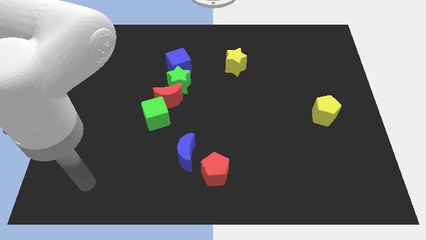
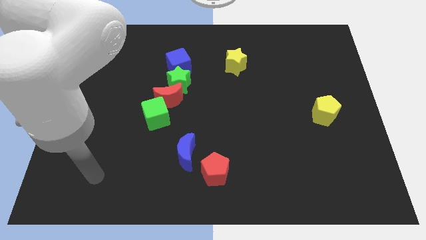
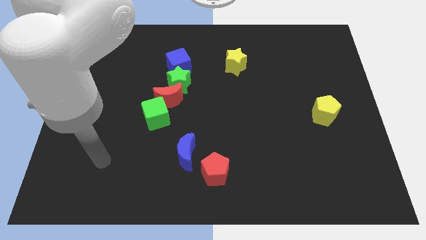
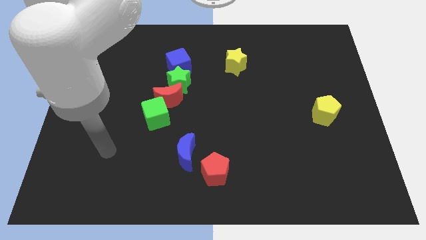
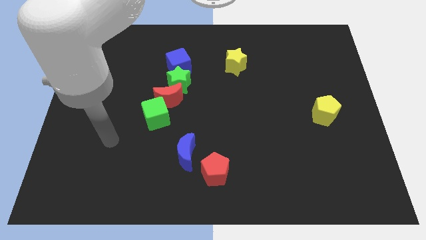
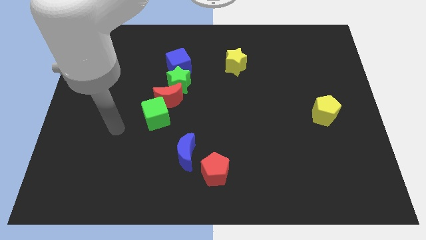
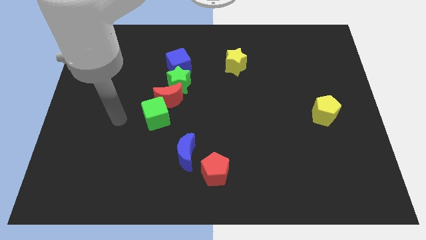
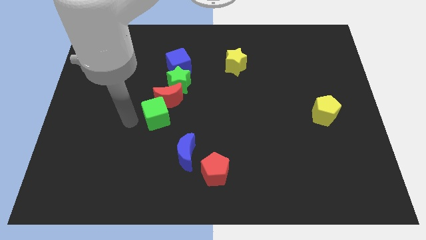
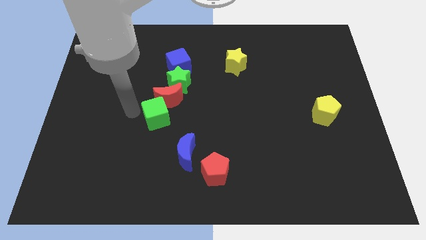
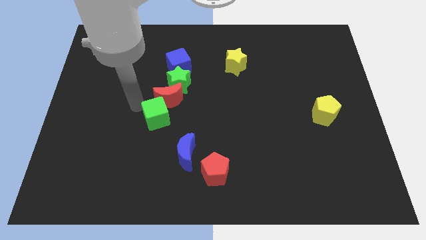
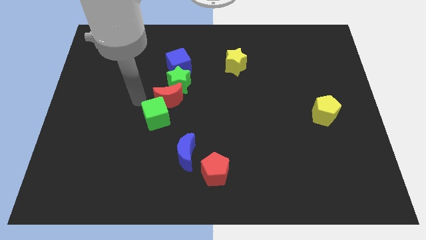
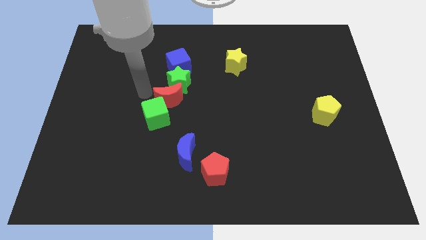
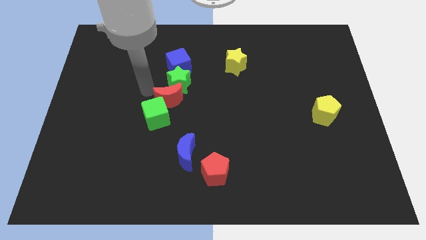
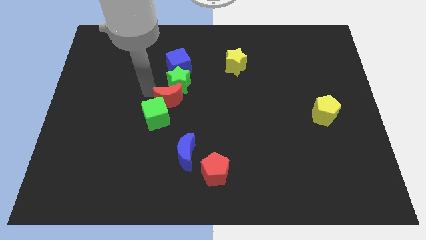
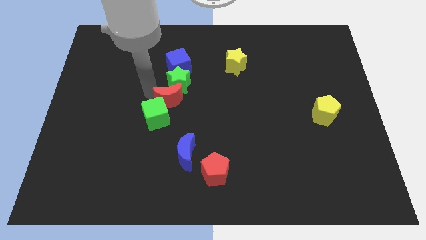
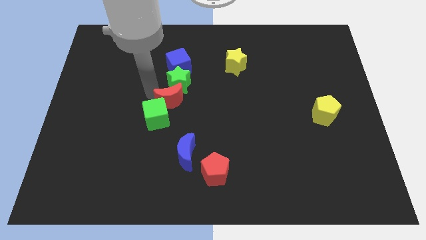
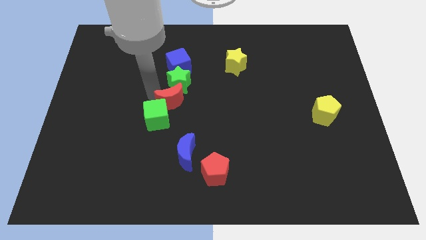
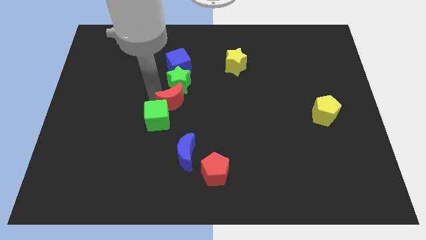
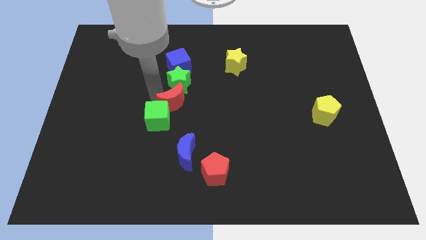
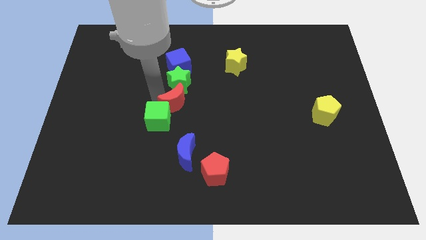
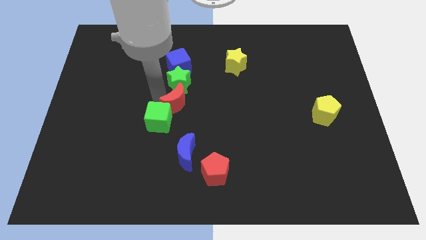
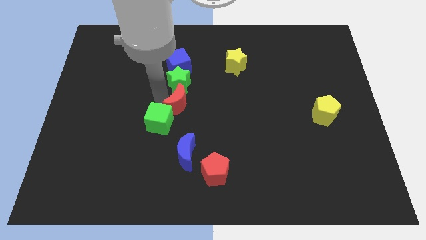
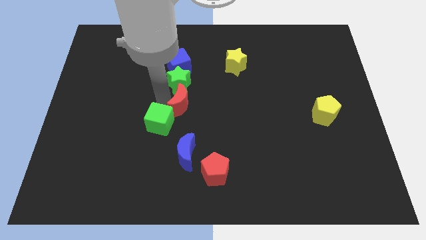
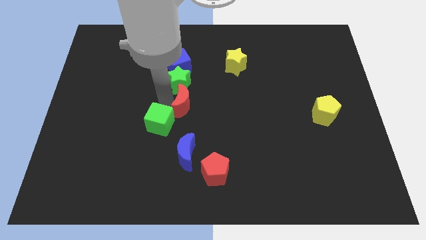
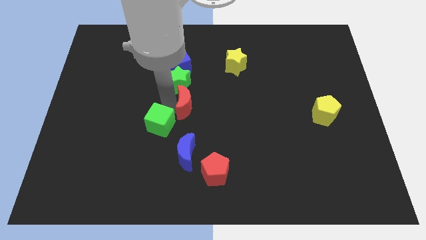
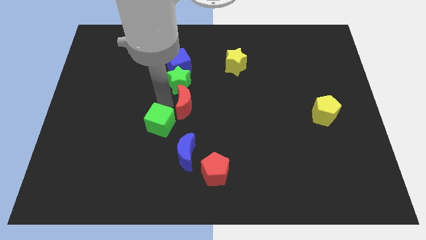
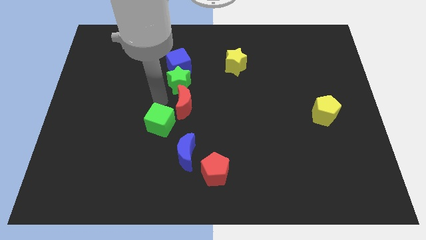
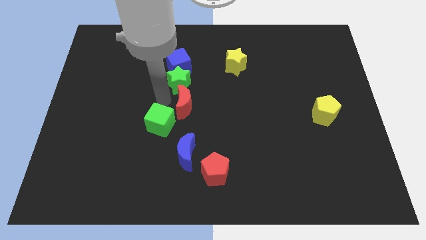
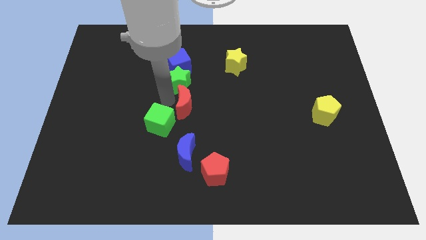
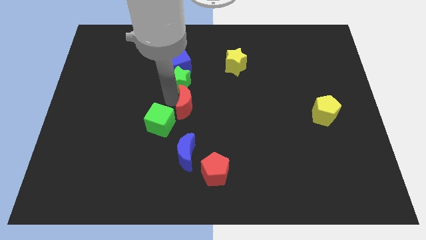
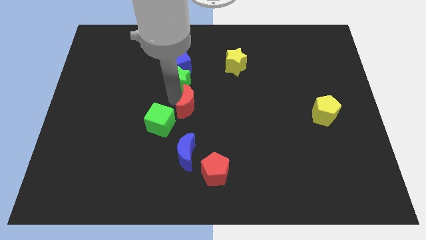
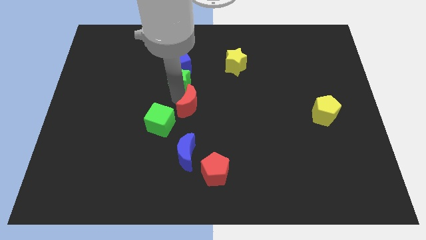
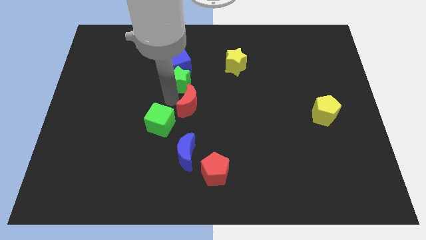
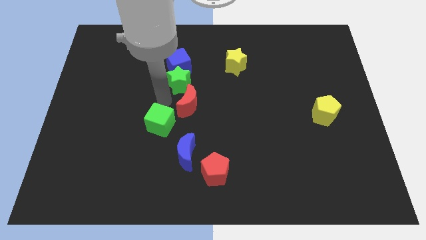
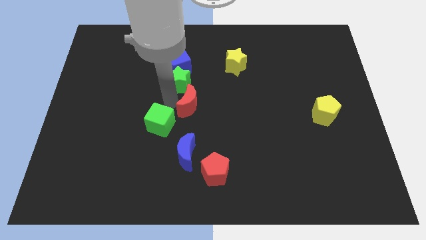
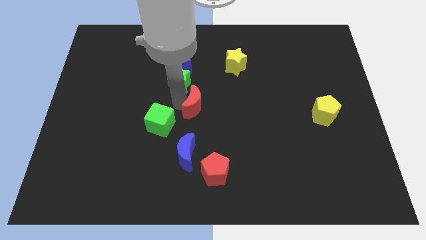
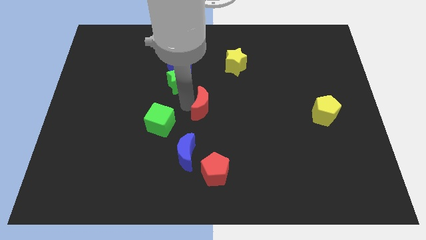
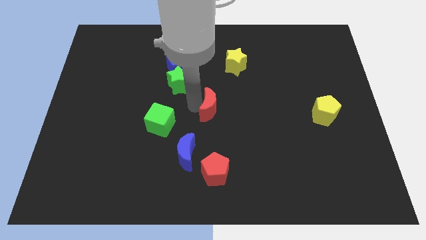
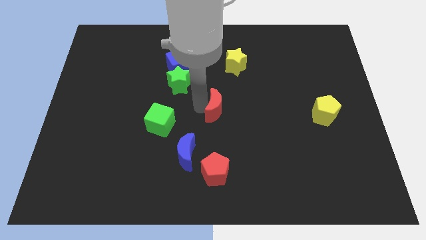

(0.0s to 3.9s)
move the red moon away from the green star and green cube

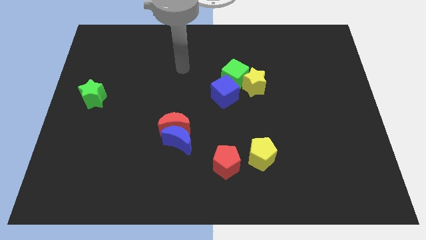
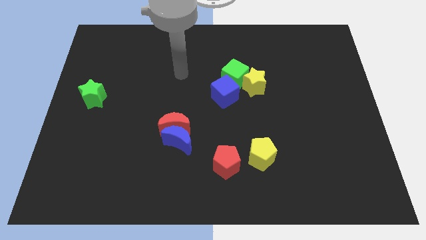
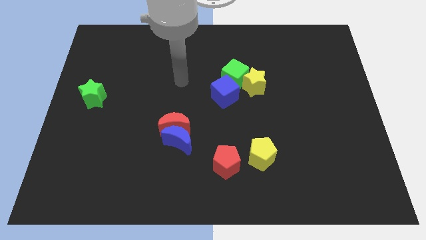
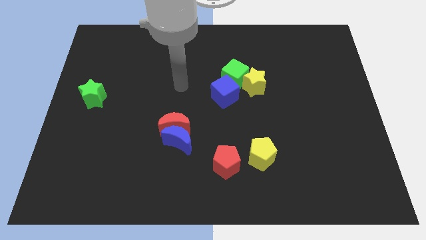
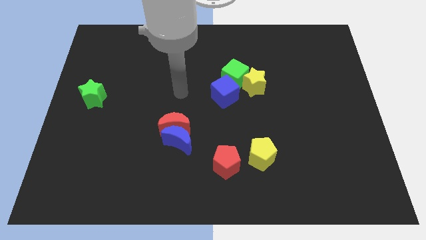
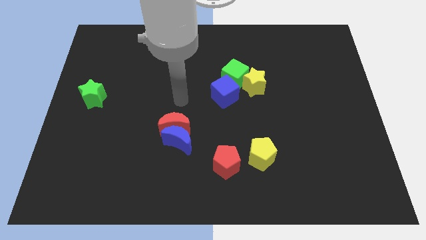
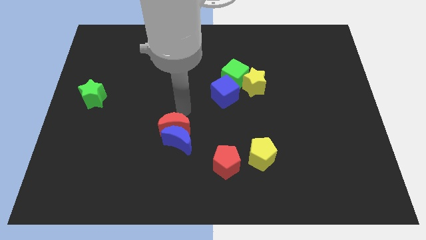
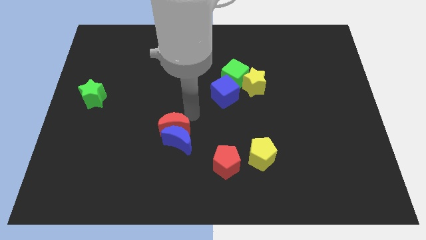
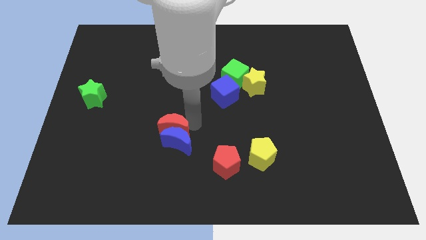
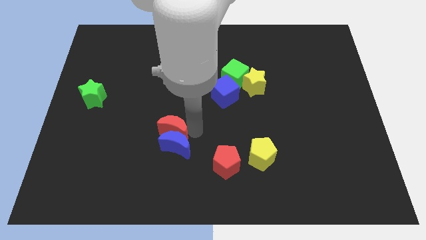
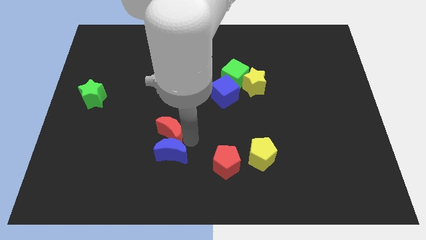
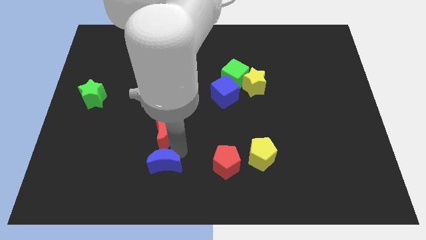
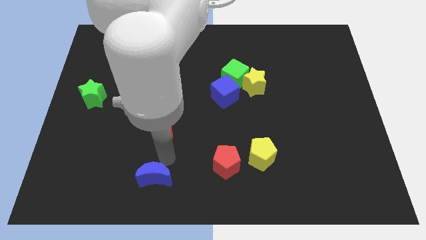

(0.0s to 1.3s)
pull the red moon apart from the blue moon

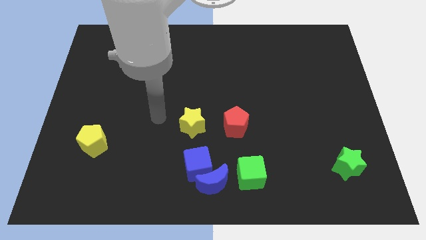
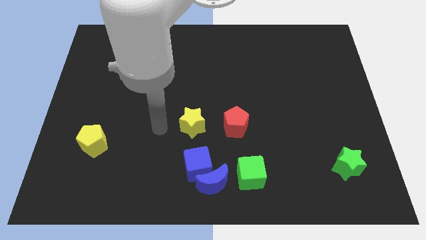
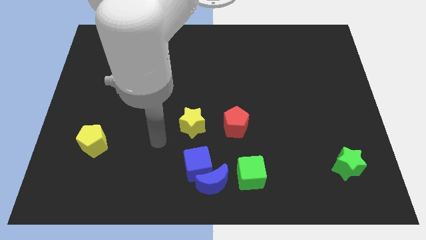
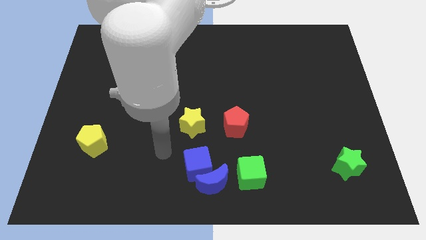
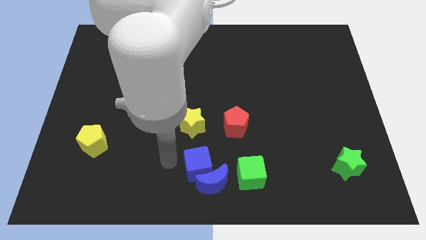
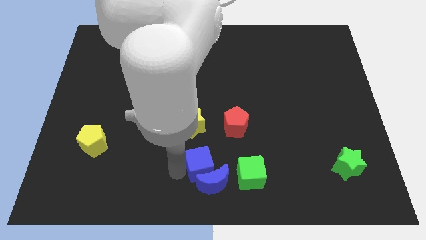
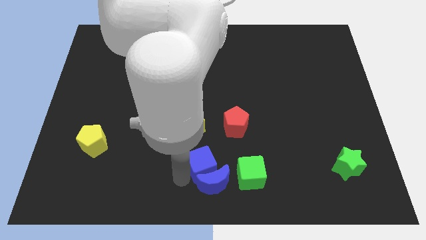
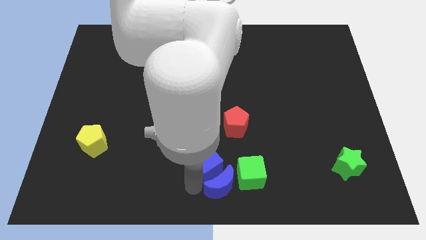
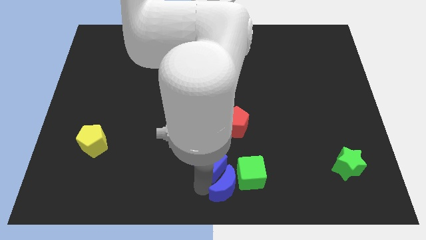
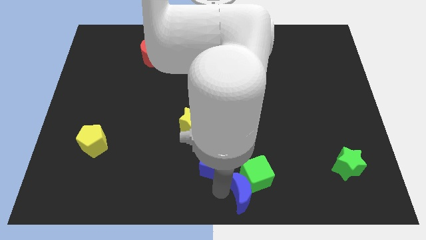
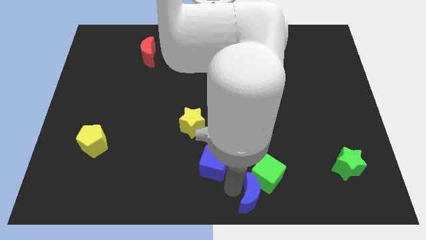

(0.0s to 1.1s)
move the blue cube away from the blue moon

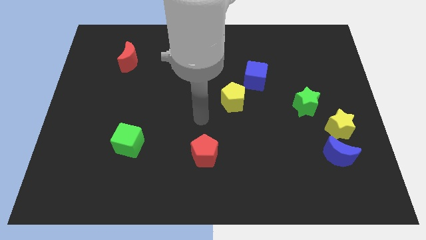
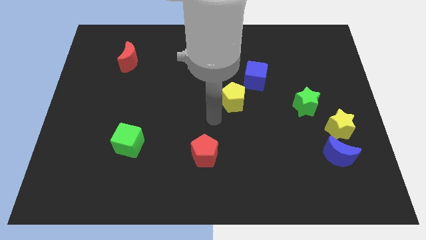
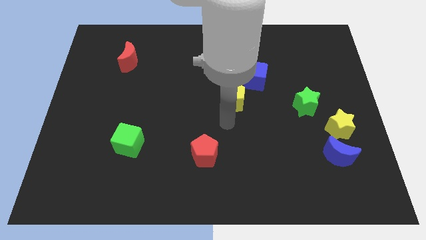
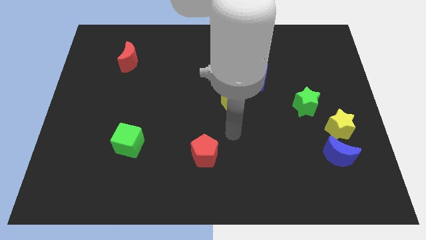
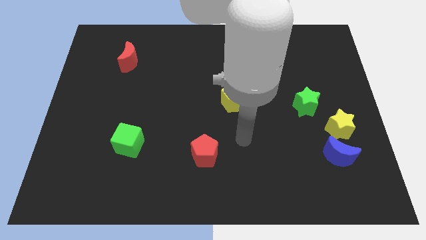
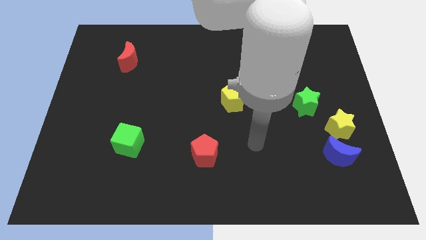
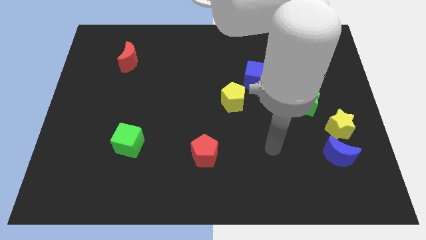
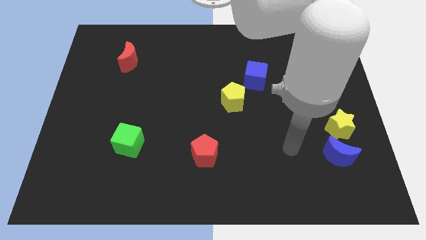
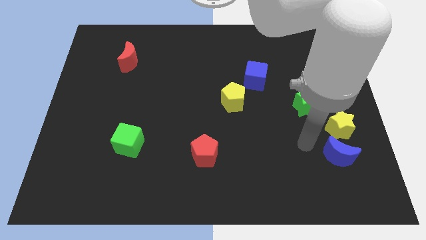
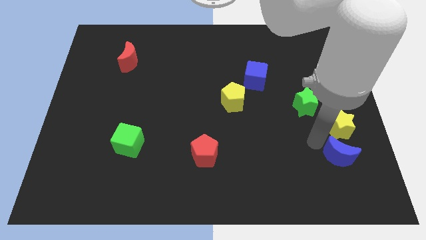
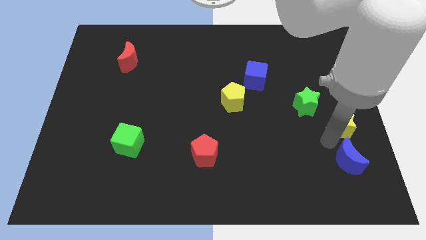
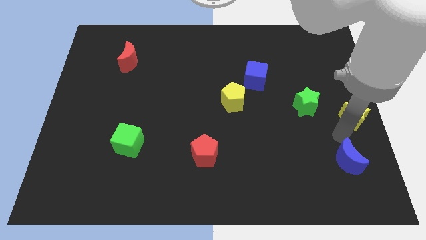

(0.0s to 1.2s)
pull the blue moon apart from the yellow star

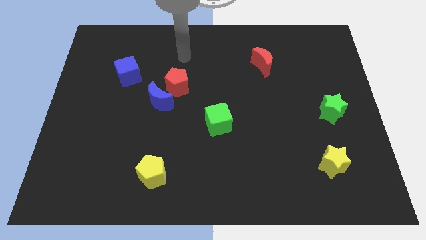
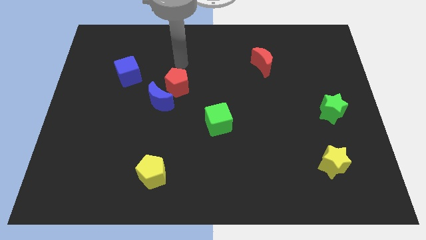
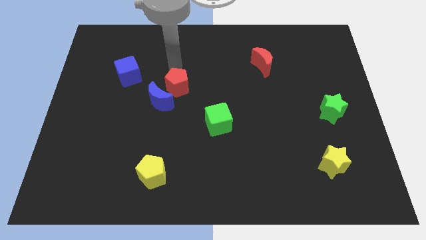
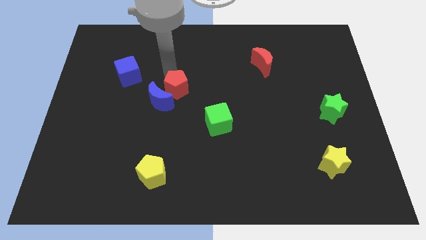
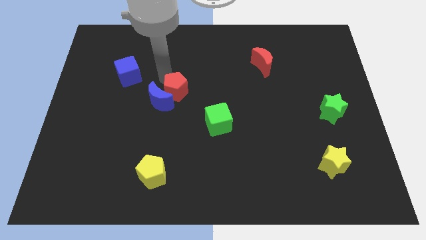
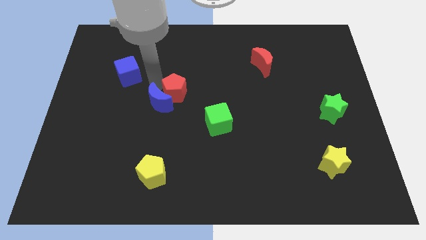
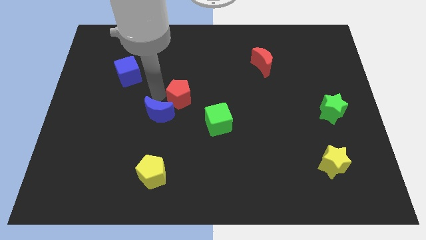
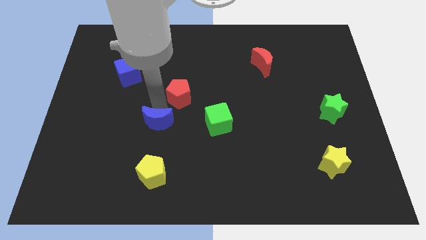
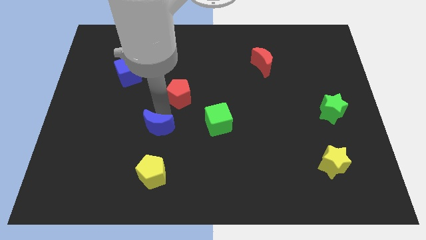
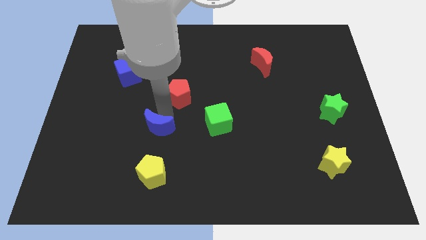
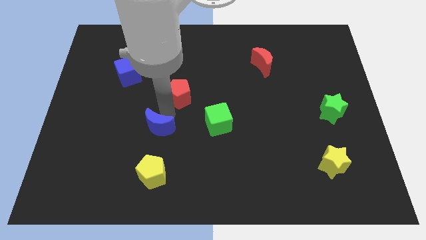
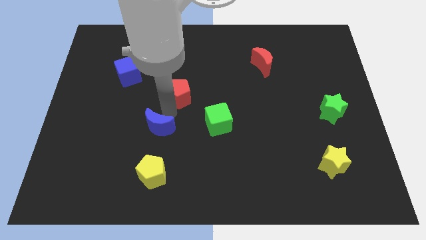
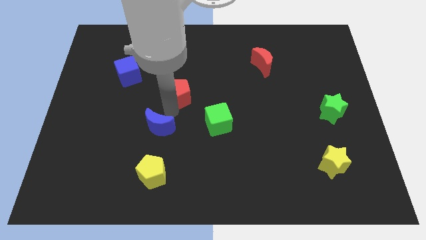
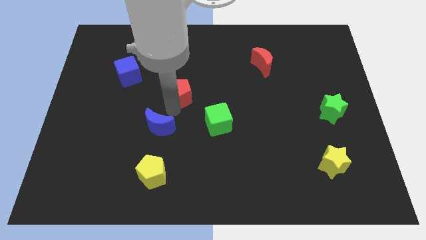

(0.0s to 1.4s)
pull the red pentagon apart from the blue moon

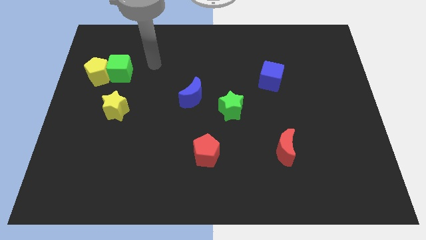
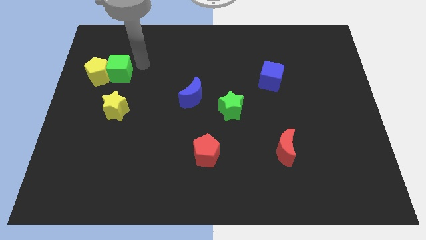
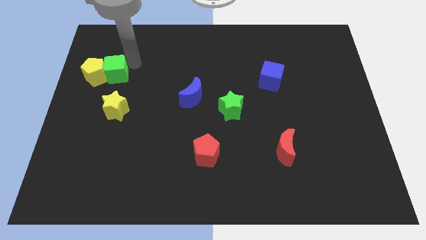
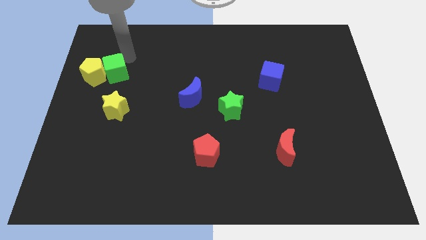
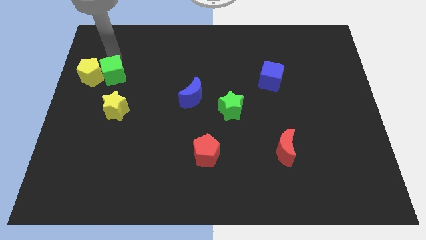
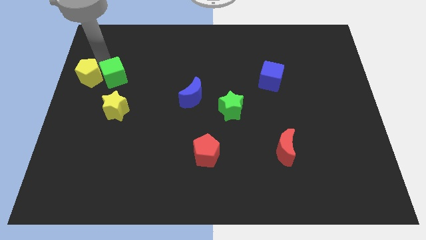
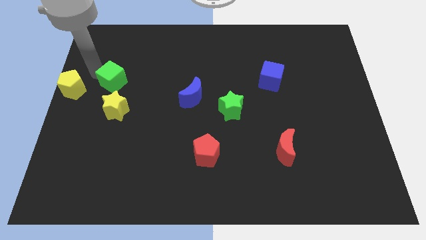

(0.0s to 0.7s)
pull the green cube apart from the yellow pentagon
